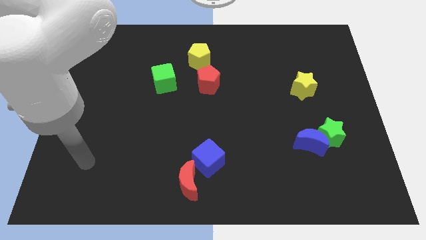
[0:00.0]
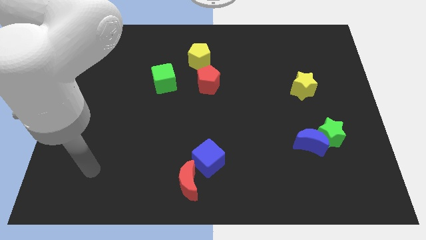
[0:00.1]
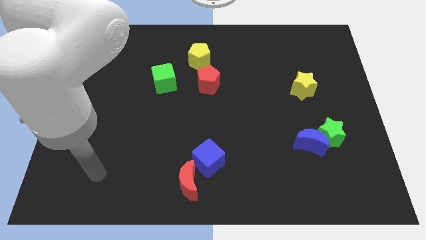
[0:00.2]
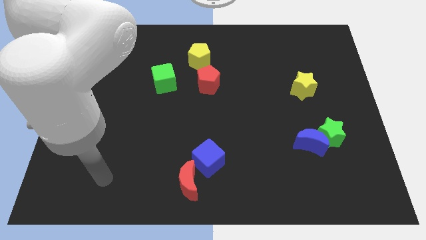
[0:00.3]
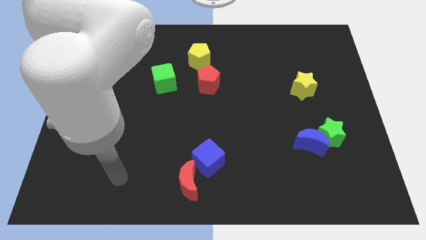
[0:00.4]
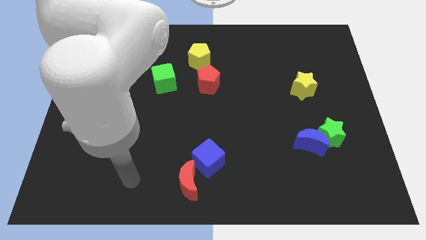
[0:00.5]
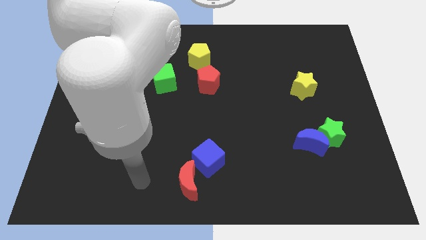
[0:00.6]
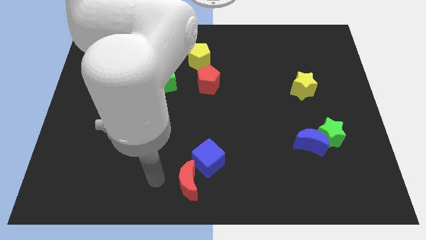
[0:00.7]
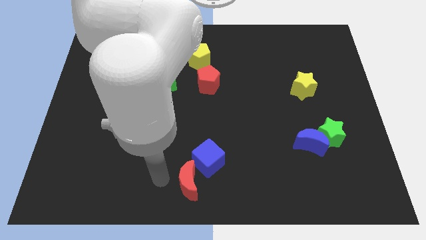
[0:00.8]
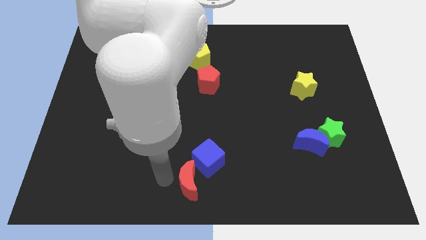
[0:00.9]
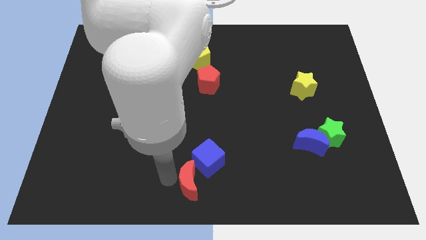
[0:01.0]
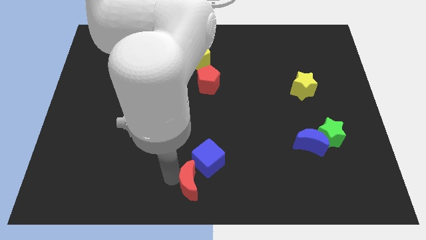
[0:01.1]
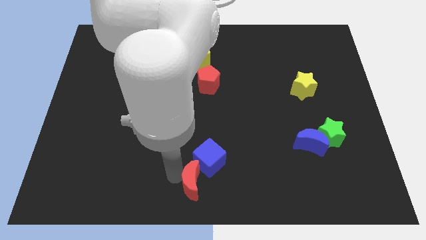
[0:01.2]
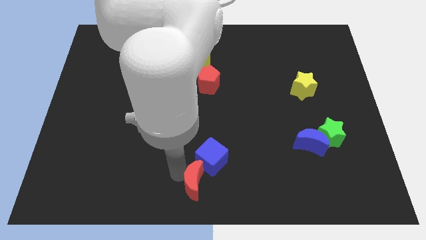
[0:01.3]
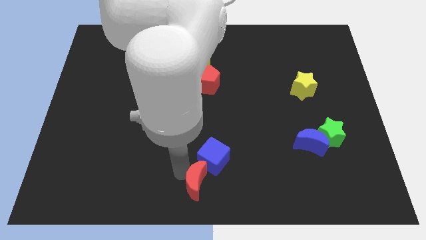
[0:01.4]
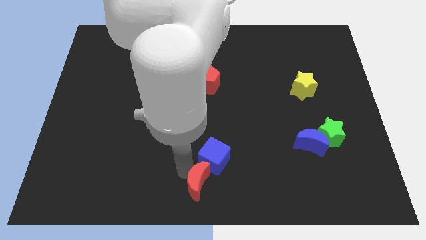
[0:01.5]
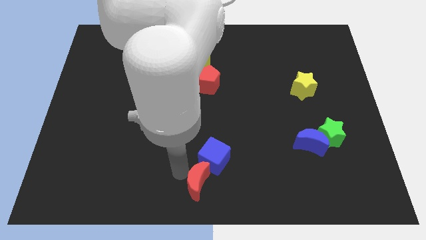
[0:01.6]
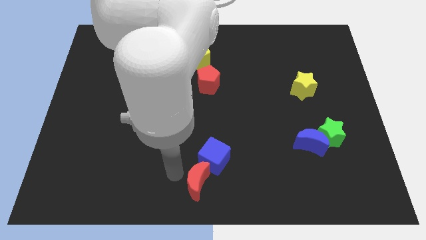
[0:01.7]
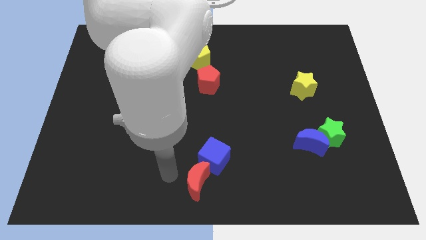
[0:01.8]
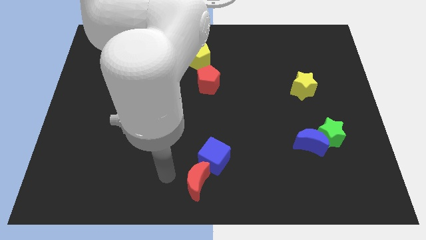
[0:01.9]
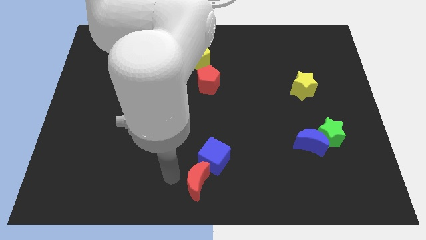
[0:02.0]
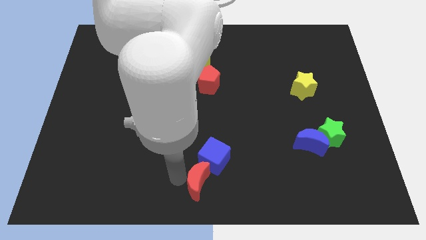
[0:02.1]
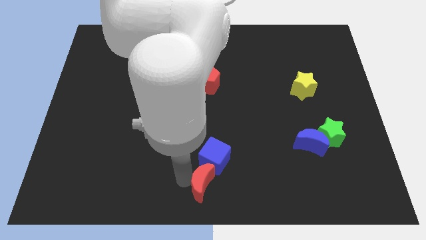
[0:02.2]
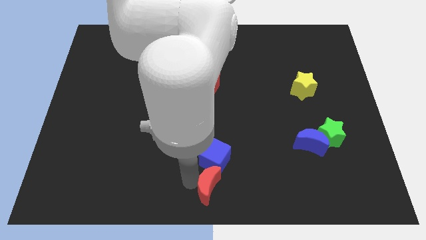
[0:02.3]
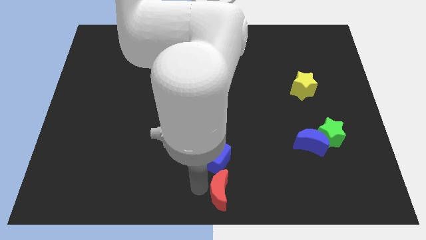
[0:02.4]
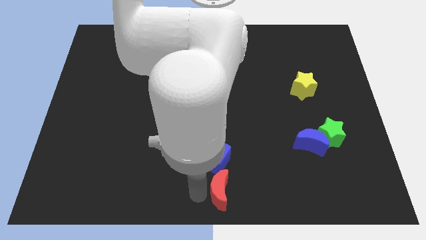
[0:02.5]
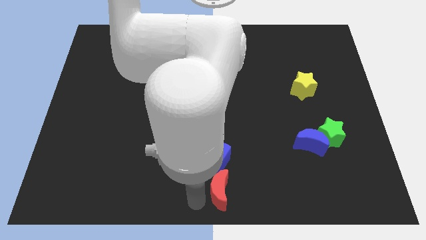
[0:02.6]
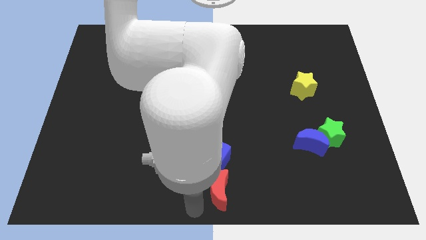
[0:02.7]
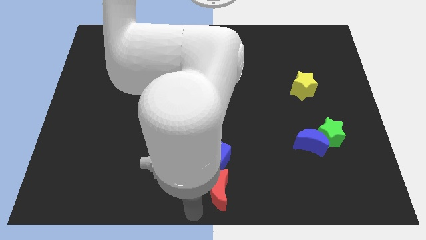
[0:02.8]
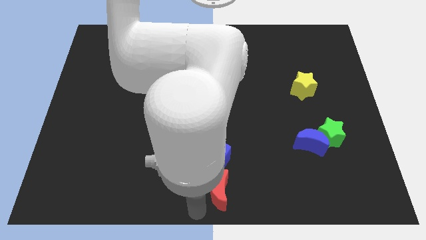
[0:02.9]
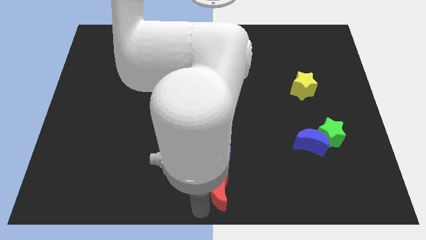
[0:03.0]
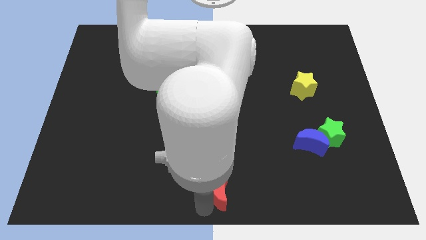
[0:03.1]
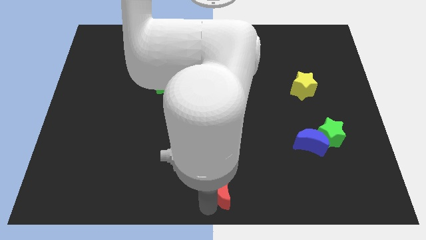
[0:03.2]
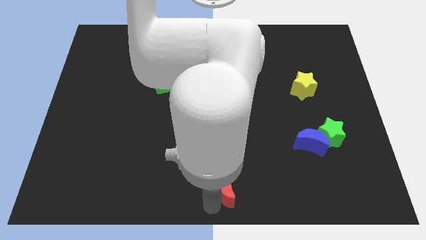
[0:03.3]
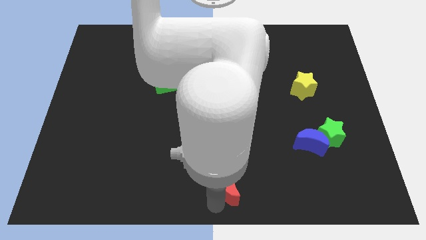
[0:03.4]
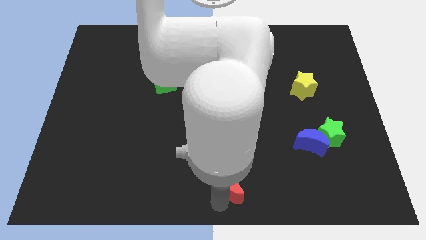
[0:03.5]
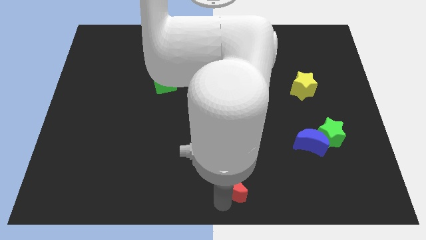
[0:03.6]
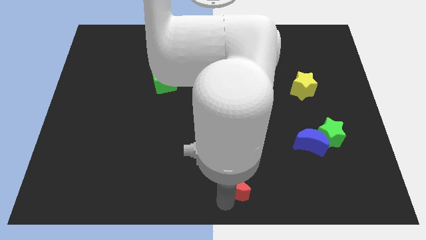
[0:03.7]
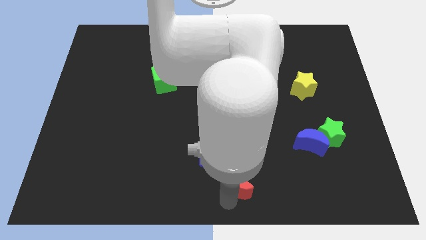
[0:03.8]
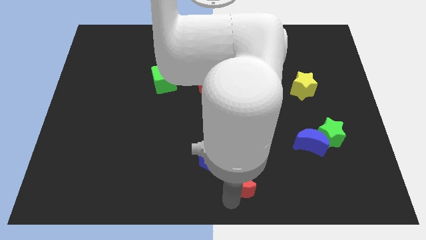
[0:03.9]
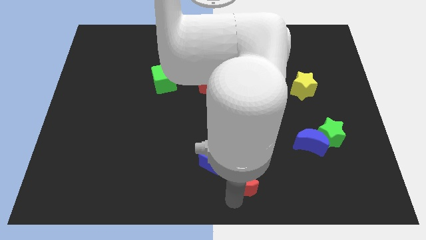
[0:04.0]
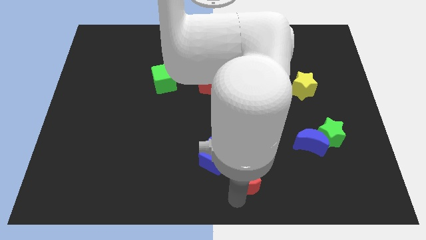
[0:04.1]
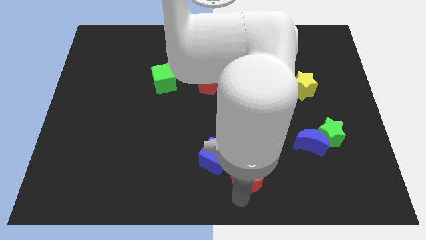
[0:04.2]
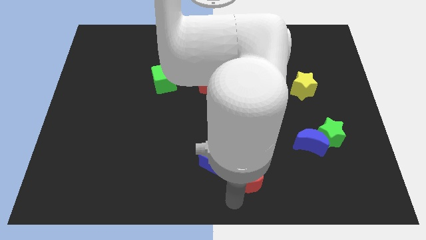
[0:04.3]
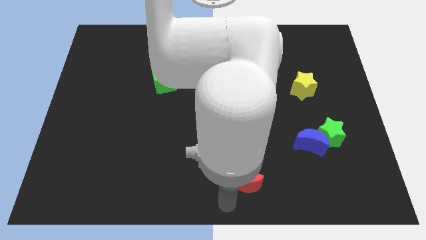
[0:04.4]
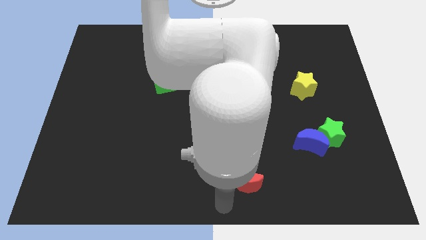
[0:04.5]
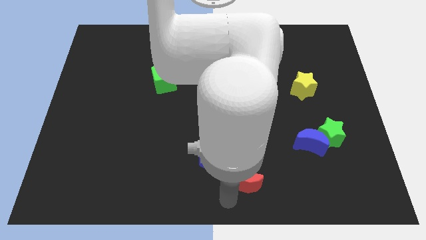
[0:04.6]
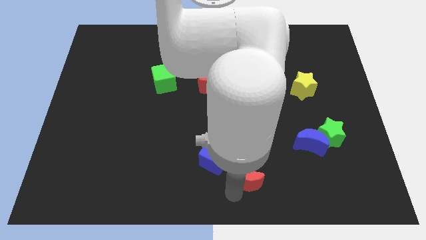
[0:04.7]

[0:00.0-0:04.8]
move the red moon right of the blue cube

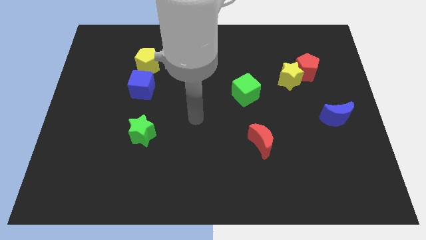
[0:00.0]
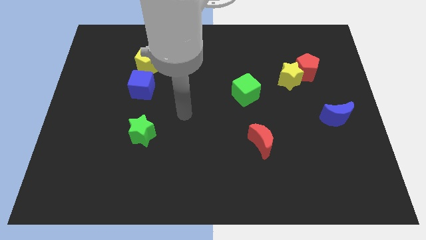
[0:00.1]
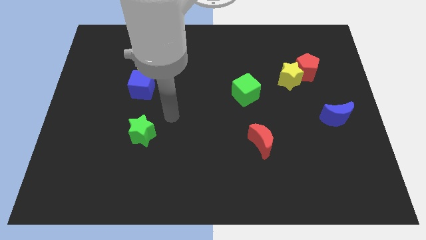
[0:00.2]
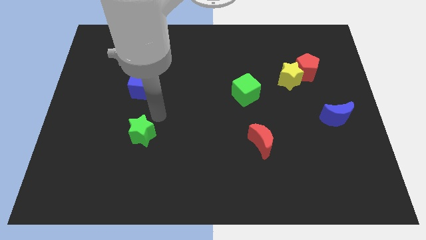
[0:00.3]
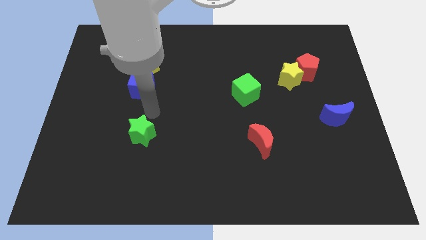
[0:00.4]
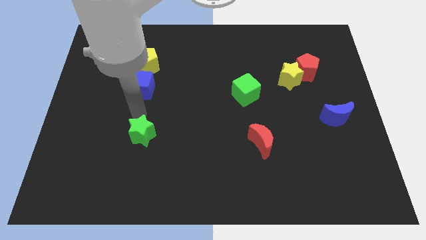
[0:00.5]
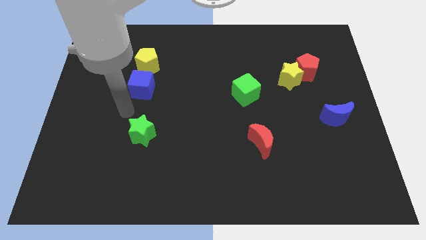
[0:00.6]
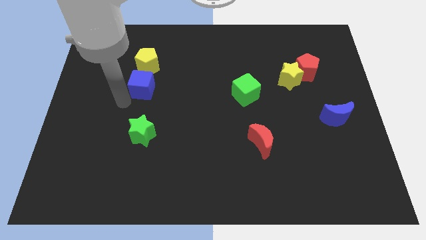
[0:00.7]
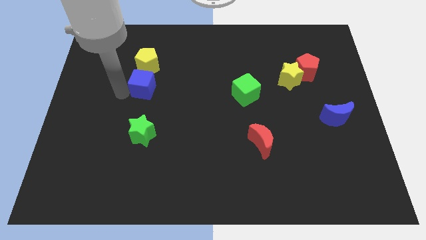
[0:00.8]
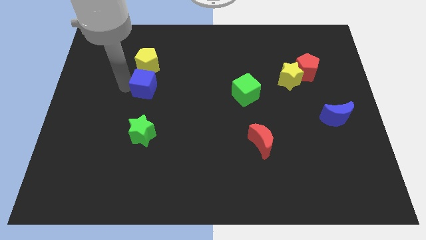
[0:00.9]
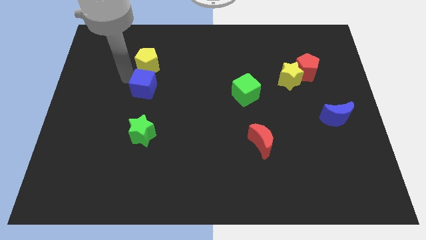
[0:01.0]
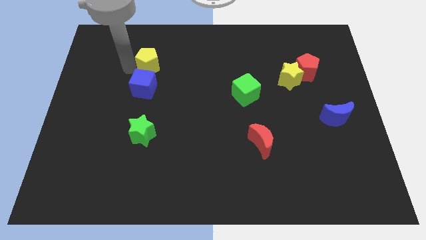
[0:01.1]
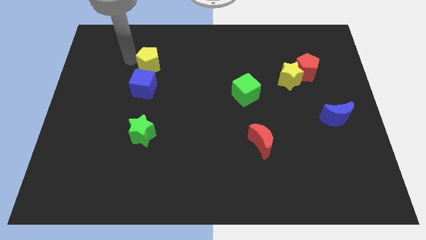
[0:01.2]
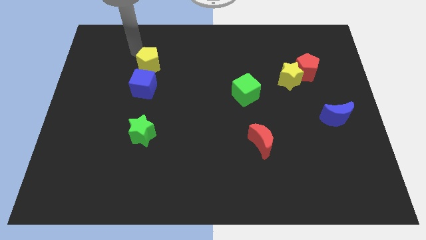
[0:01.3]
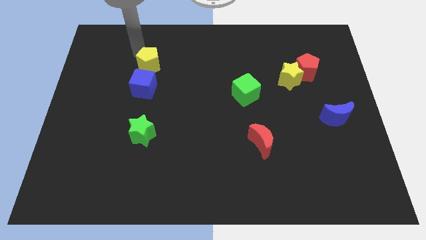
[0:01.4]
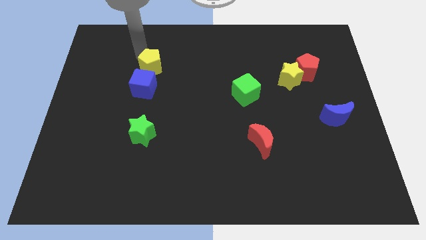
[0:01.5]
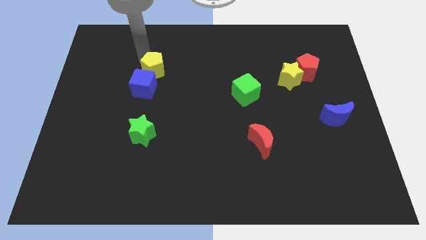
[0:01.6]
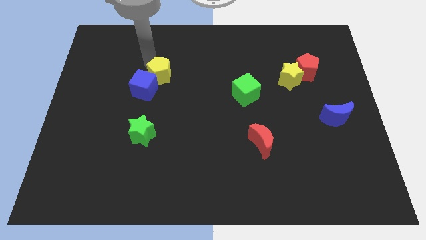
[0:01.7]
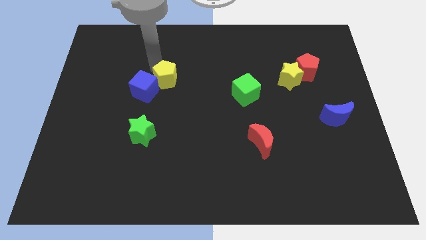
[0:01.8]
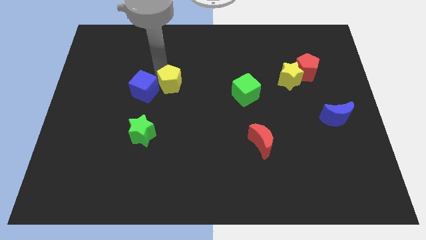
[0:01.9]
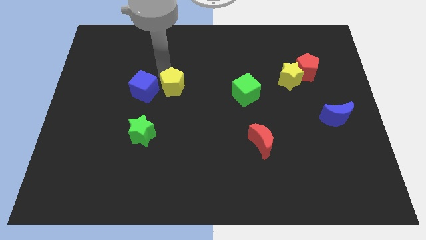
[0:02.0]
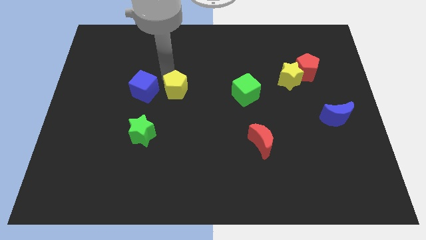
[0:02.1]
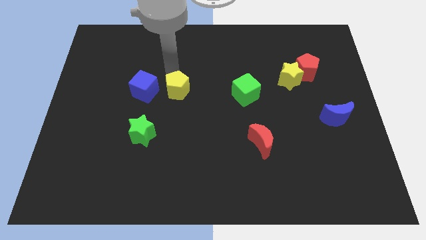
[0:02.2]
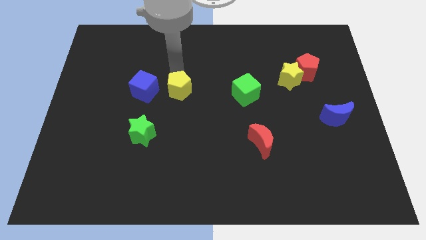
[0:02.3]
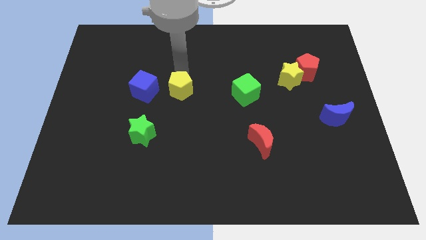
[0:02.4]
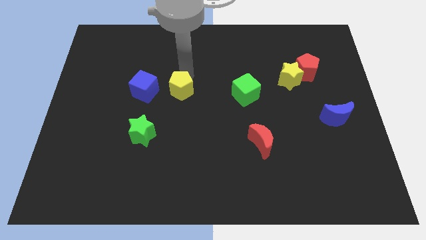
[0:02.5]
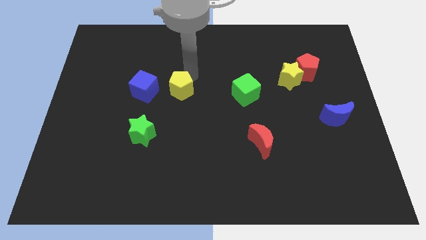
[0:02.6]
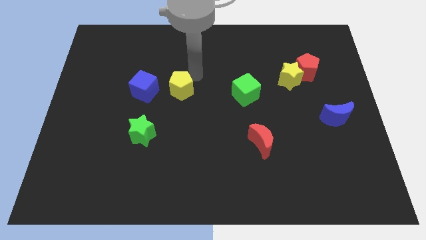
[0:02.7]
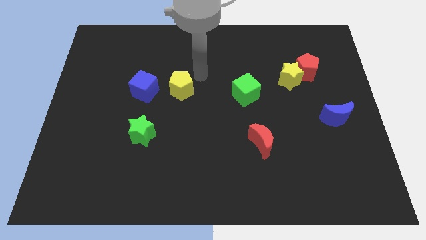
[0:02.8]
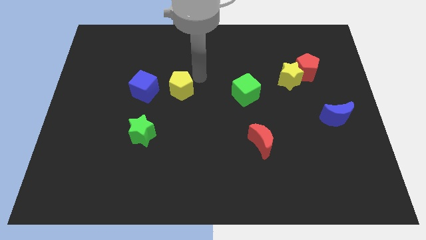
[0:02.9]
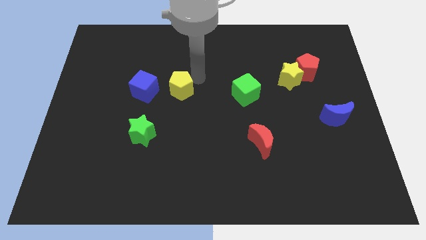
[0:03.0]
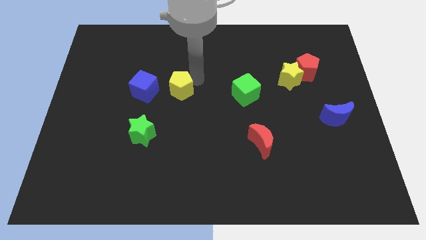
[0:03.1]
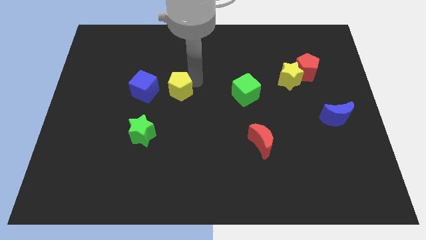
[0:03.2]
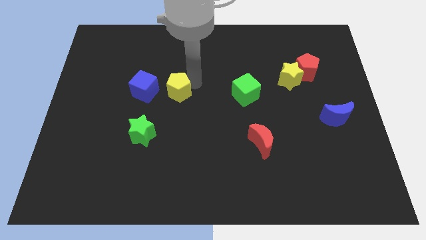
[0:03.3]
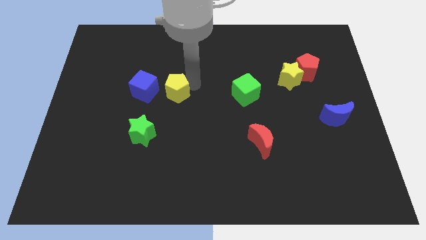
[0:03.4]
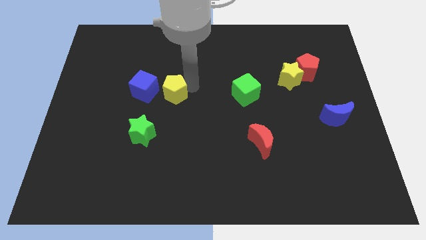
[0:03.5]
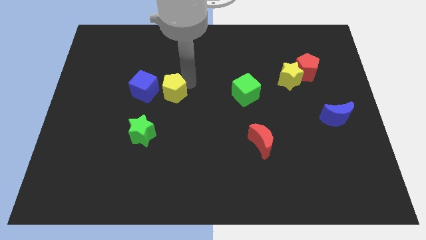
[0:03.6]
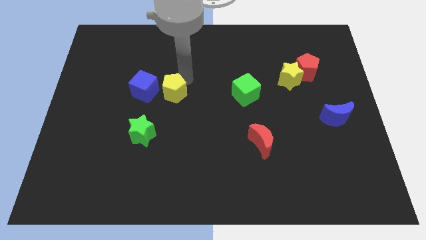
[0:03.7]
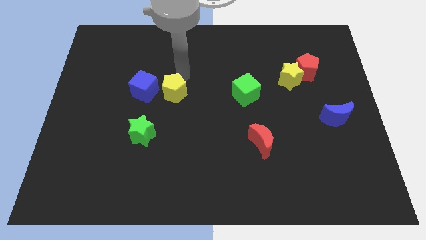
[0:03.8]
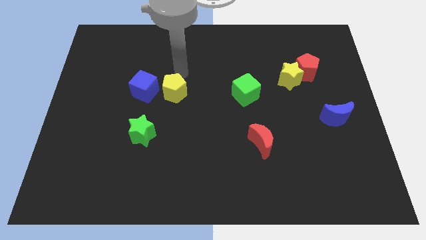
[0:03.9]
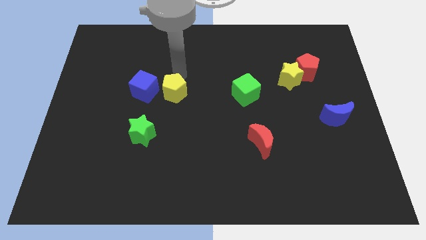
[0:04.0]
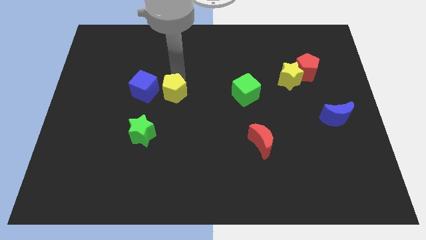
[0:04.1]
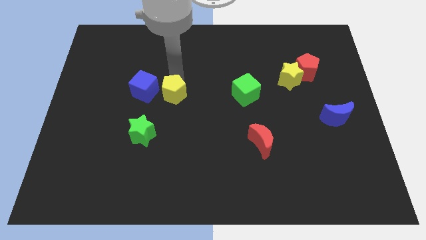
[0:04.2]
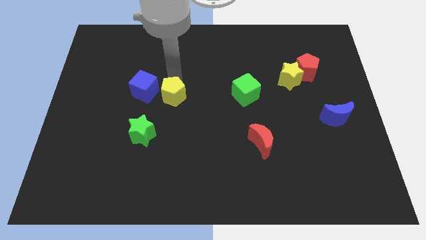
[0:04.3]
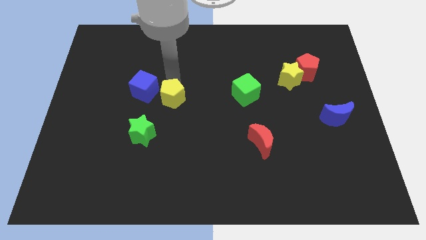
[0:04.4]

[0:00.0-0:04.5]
put the yellow pentagon to the top right of the green star
